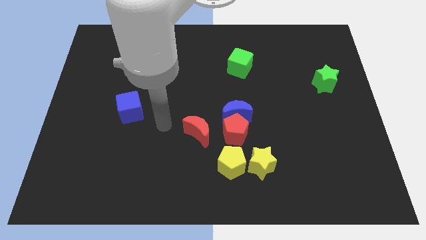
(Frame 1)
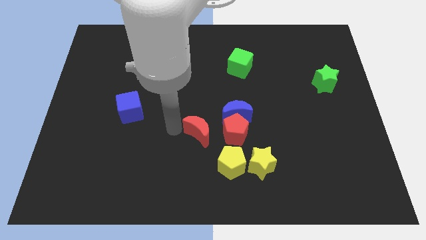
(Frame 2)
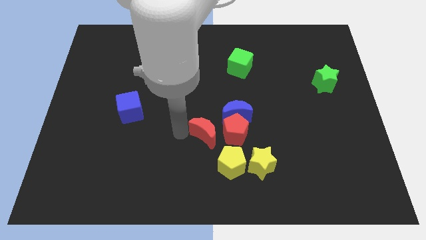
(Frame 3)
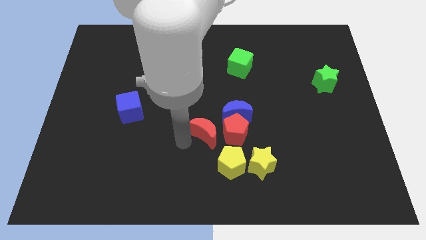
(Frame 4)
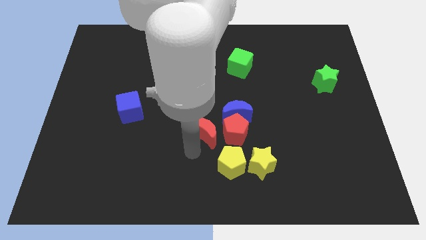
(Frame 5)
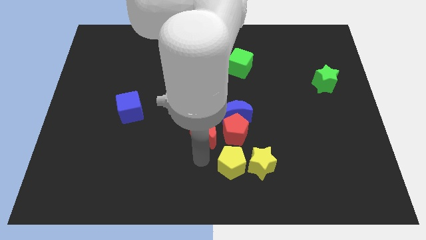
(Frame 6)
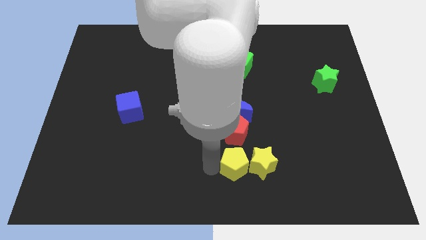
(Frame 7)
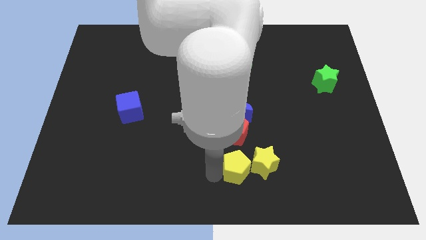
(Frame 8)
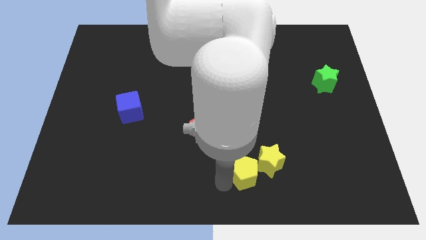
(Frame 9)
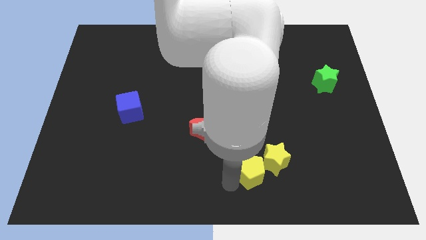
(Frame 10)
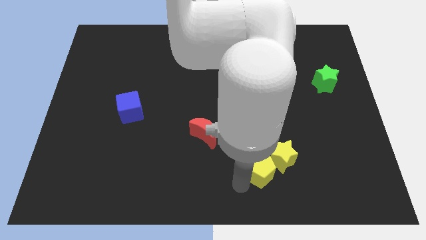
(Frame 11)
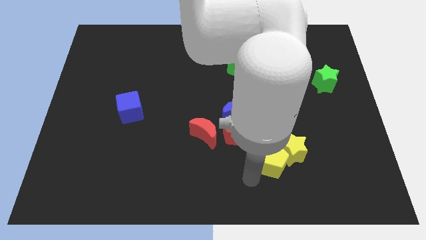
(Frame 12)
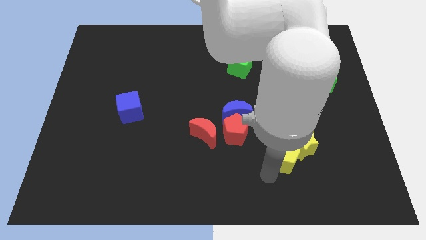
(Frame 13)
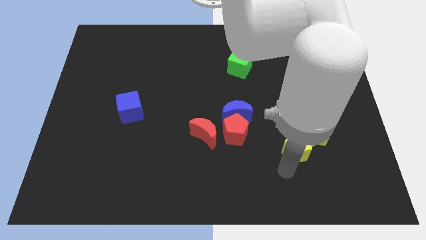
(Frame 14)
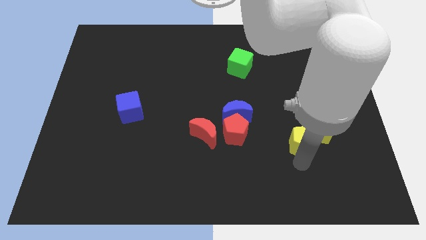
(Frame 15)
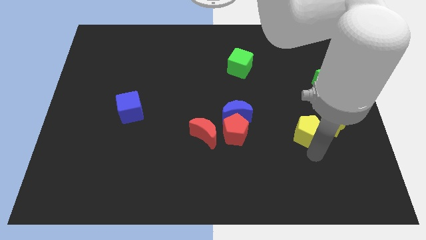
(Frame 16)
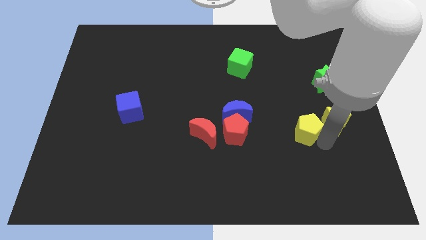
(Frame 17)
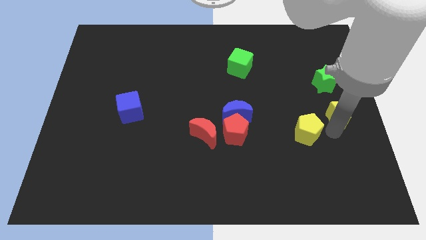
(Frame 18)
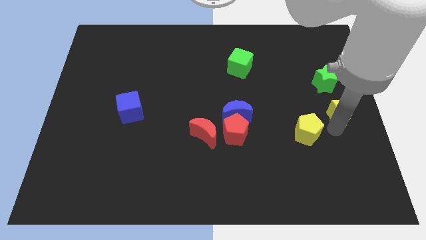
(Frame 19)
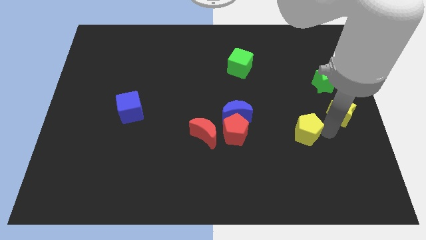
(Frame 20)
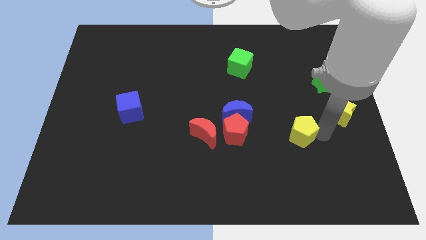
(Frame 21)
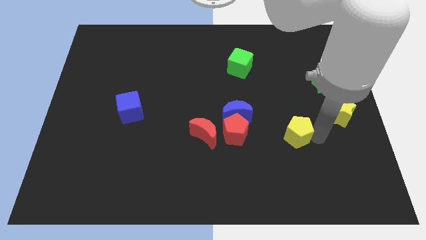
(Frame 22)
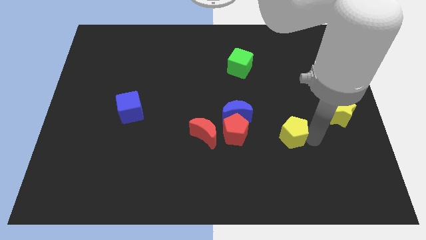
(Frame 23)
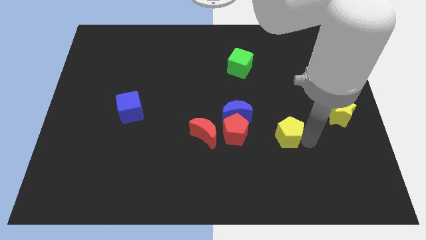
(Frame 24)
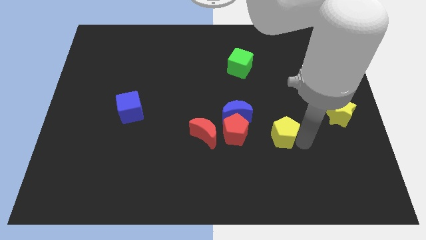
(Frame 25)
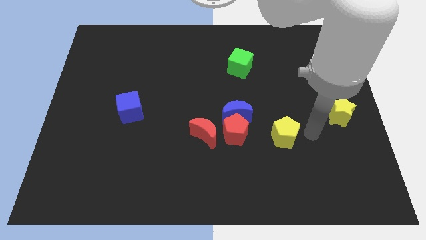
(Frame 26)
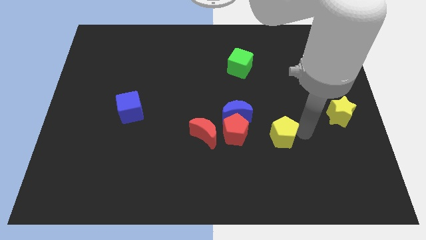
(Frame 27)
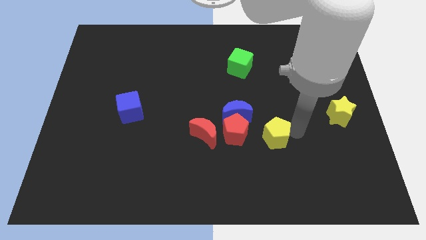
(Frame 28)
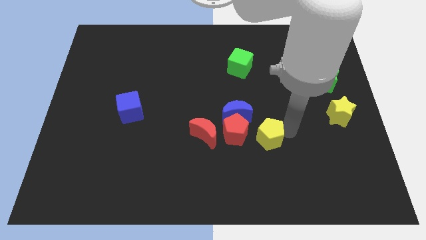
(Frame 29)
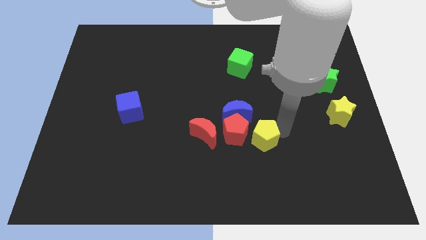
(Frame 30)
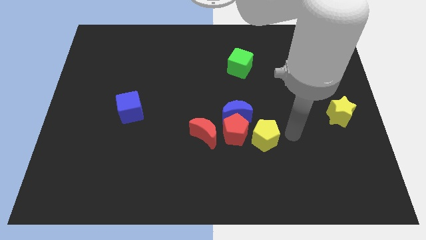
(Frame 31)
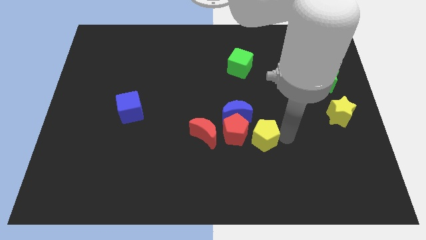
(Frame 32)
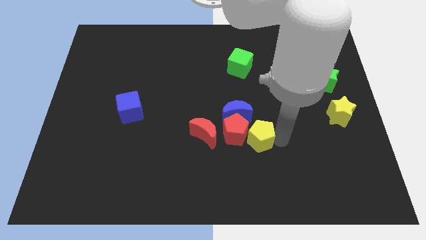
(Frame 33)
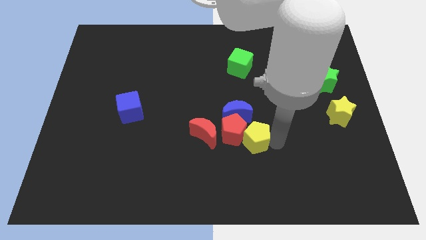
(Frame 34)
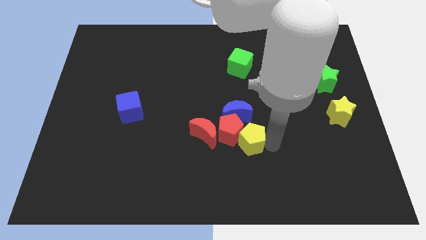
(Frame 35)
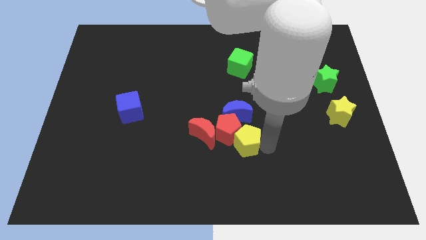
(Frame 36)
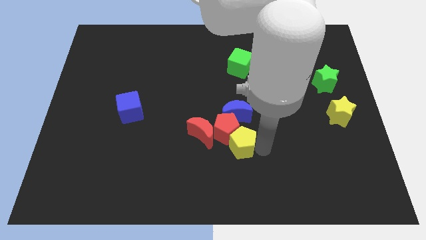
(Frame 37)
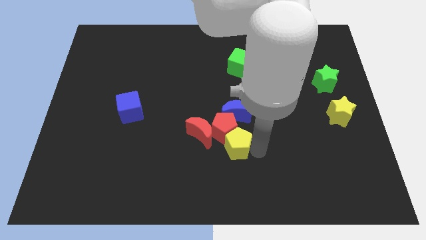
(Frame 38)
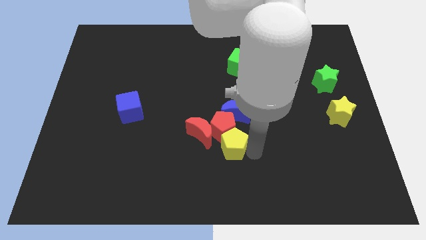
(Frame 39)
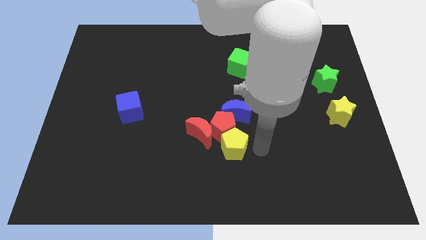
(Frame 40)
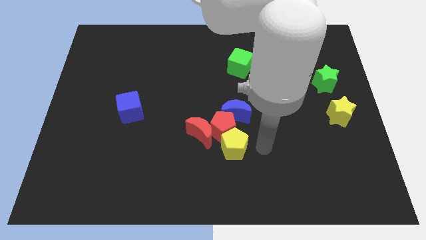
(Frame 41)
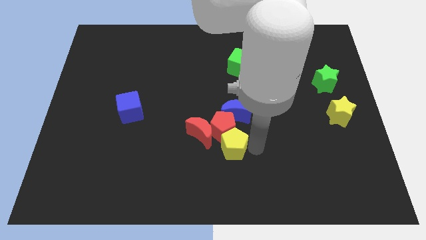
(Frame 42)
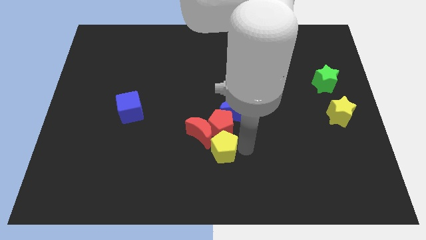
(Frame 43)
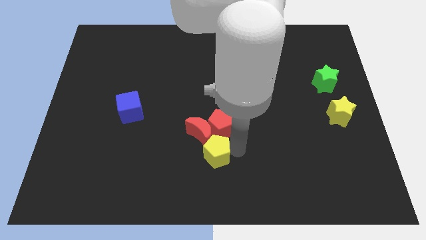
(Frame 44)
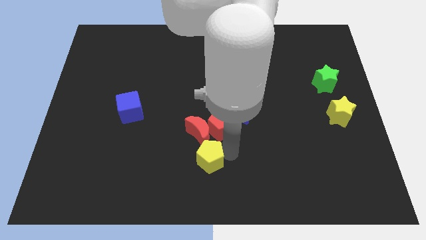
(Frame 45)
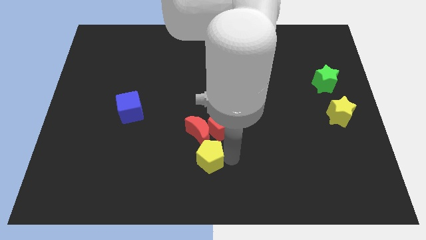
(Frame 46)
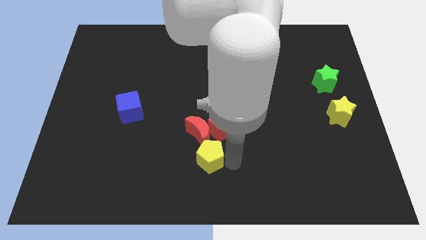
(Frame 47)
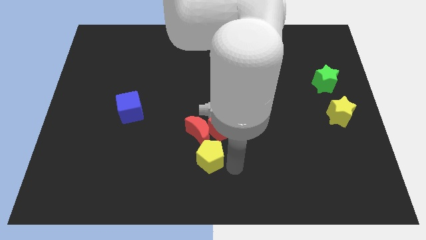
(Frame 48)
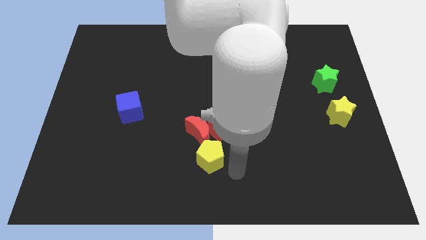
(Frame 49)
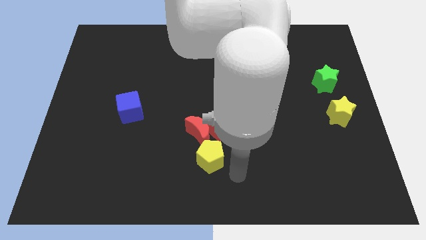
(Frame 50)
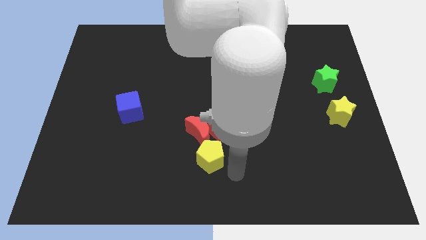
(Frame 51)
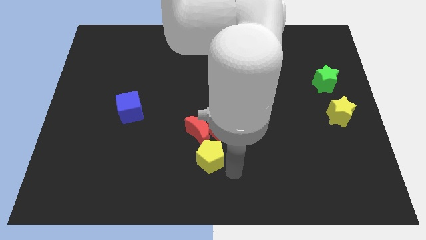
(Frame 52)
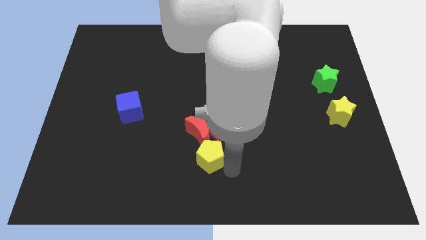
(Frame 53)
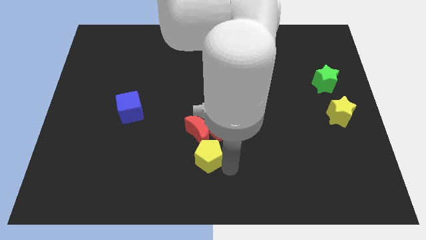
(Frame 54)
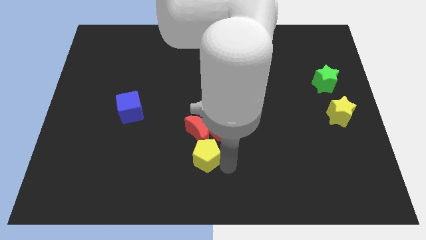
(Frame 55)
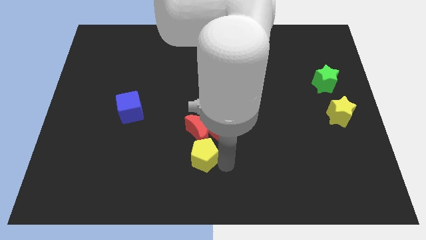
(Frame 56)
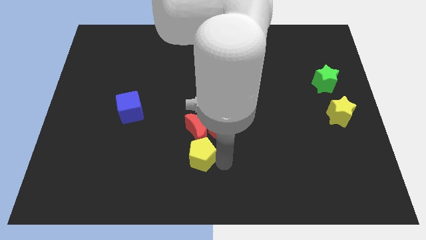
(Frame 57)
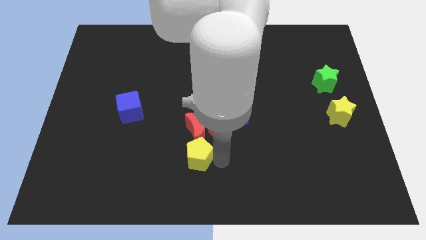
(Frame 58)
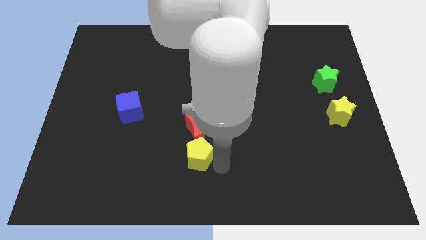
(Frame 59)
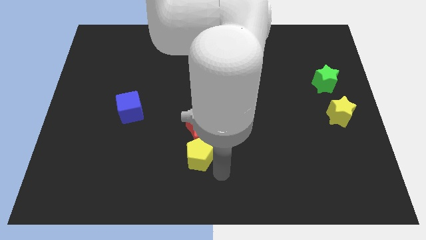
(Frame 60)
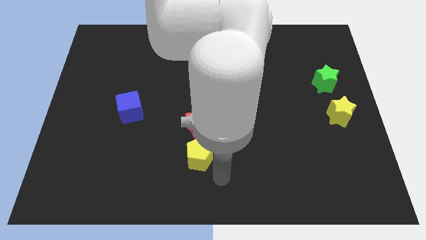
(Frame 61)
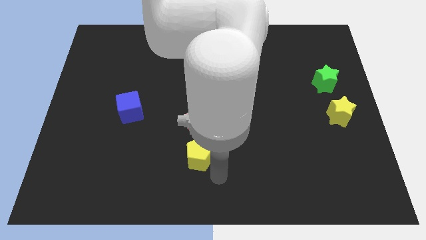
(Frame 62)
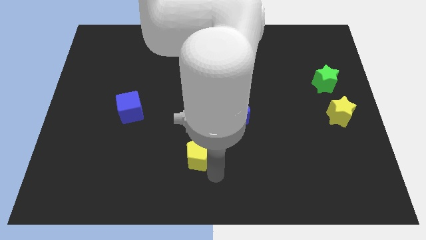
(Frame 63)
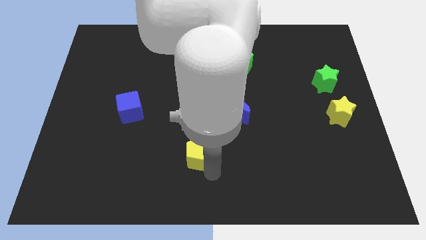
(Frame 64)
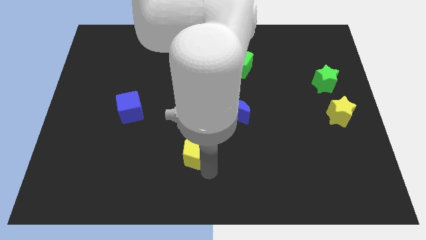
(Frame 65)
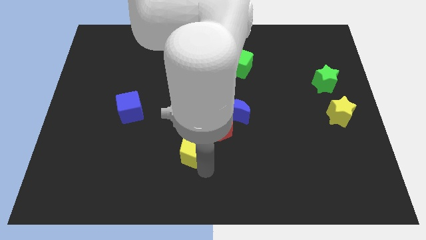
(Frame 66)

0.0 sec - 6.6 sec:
slightly push the yellow pentagon upwards and left

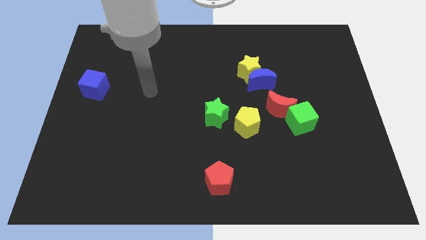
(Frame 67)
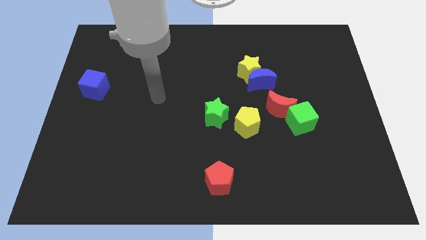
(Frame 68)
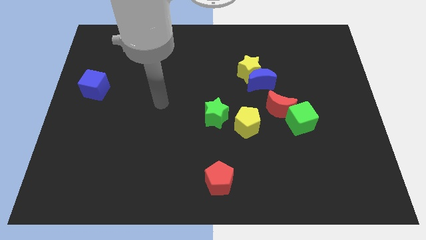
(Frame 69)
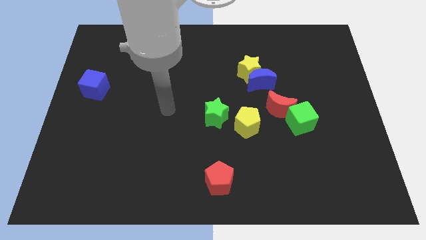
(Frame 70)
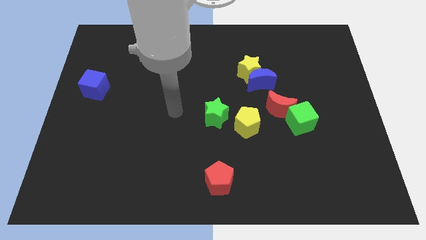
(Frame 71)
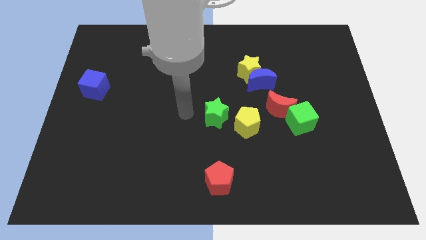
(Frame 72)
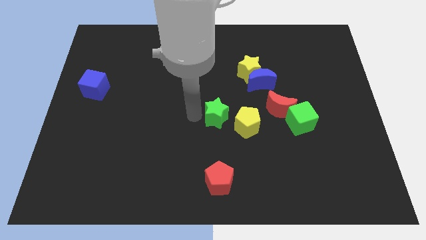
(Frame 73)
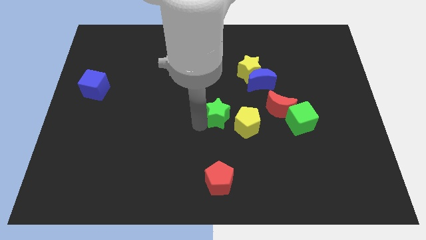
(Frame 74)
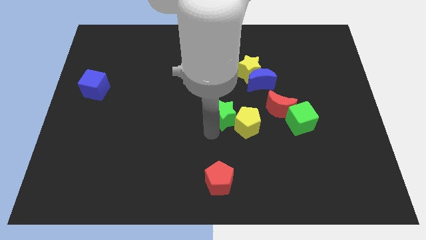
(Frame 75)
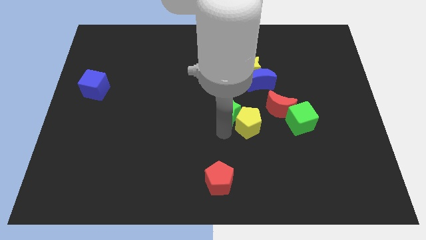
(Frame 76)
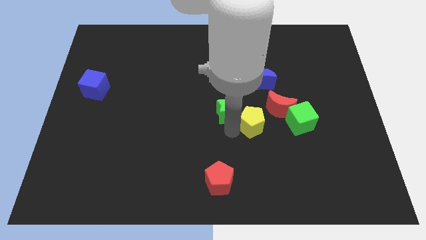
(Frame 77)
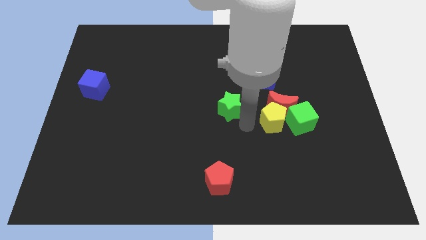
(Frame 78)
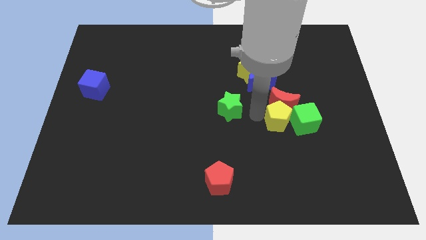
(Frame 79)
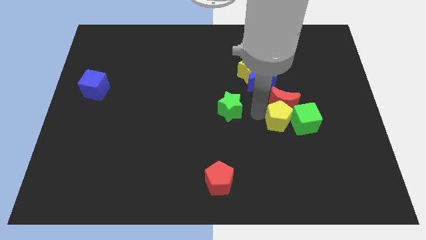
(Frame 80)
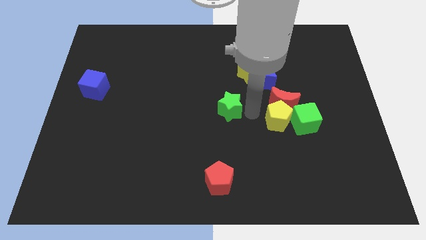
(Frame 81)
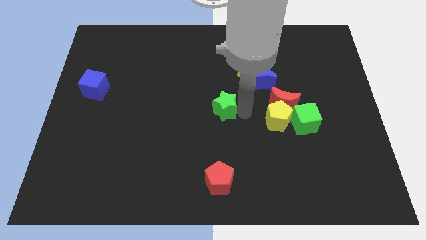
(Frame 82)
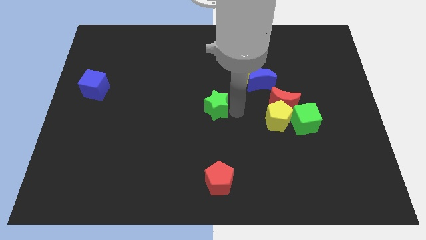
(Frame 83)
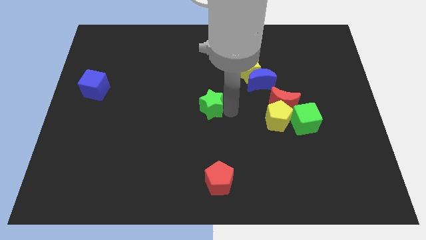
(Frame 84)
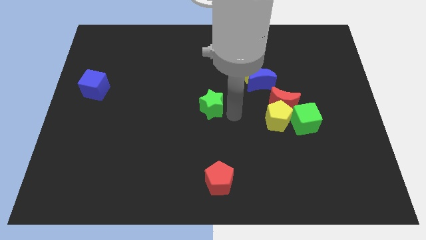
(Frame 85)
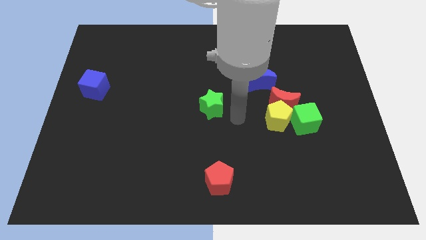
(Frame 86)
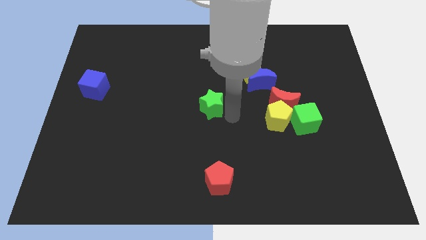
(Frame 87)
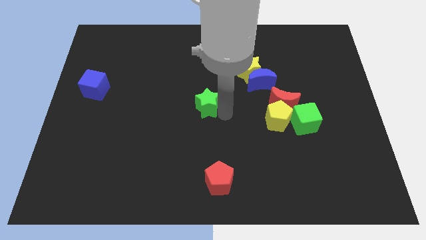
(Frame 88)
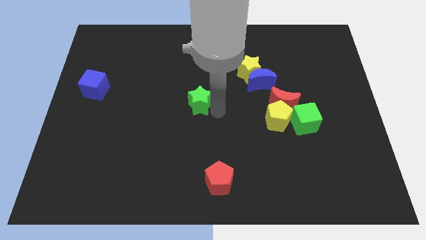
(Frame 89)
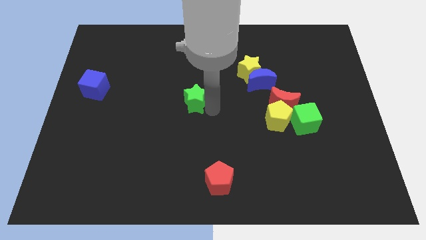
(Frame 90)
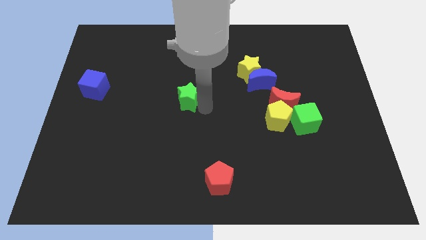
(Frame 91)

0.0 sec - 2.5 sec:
move the green star somewhat upwards and to the left
